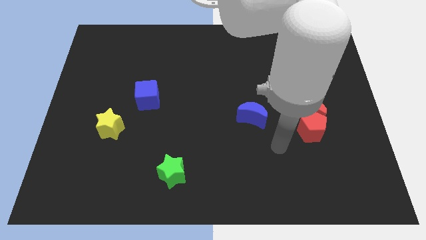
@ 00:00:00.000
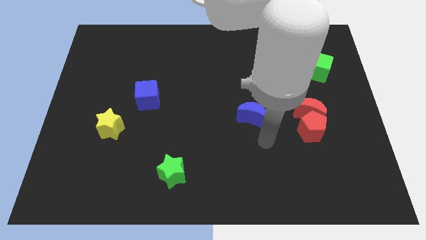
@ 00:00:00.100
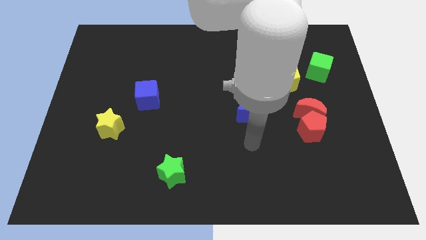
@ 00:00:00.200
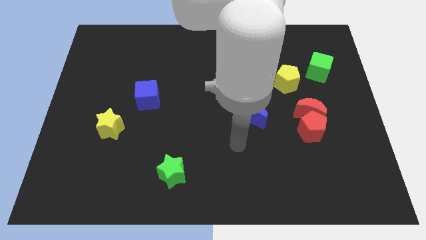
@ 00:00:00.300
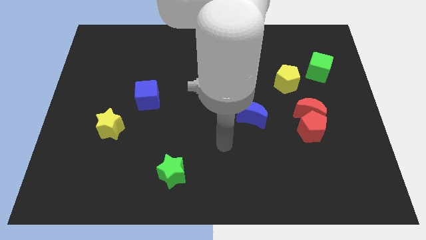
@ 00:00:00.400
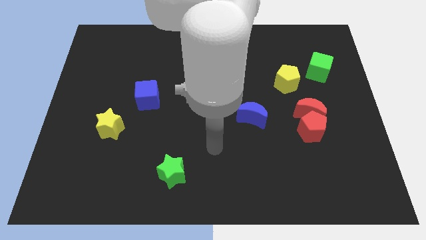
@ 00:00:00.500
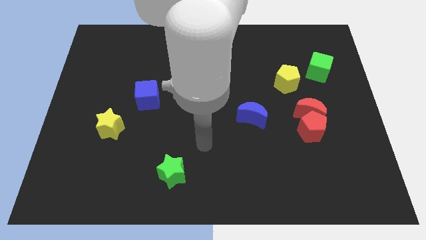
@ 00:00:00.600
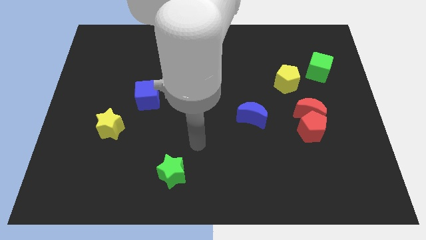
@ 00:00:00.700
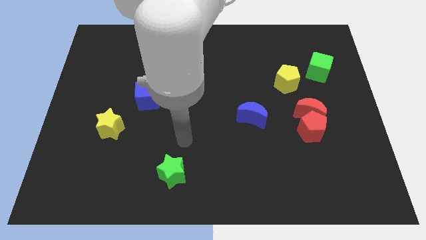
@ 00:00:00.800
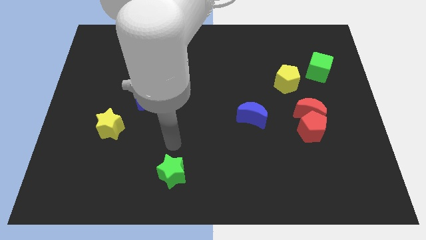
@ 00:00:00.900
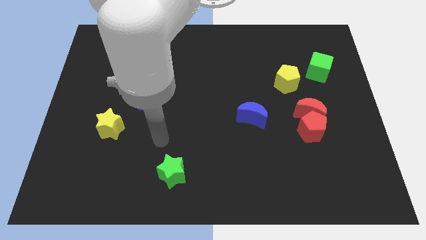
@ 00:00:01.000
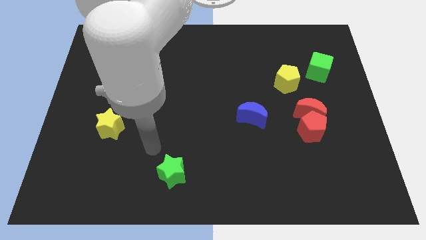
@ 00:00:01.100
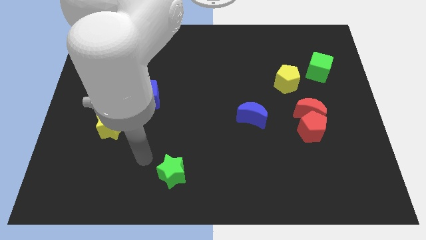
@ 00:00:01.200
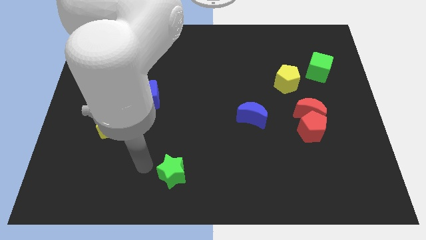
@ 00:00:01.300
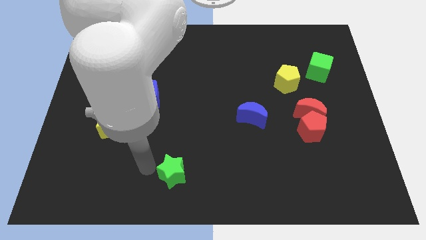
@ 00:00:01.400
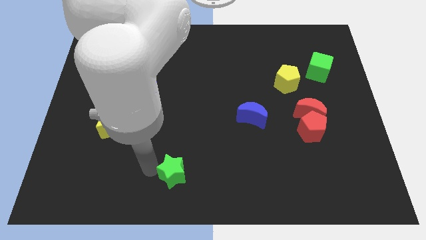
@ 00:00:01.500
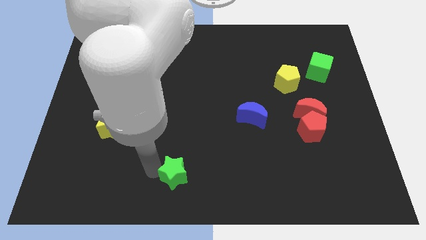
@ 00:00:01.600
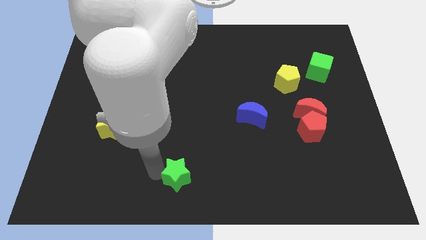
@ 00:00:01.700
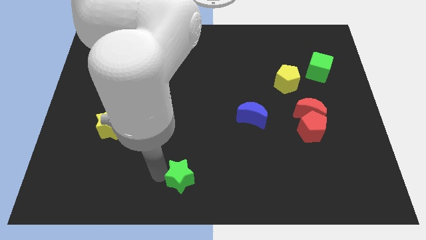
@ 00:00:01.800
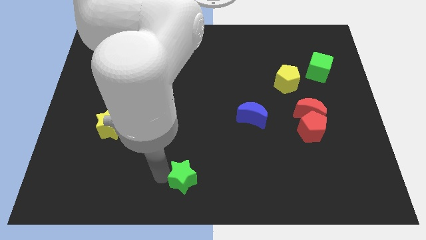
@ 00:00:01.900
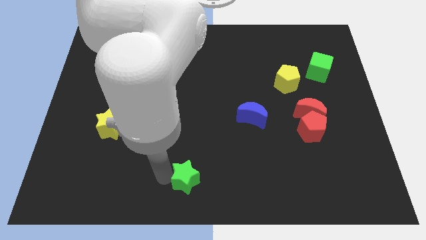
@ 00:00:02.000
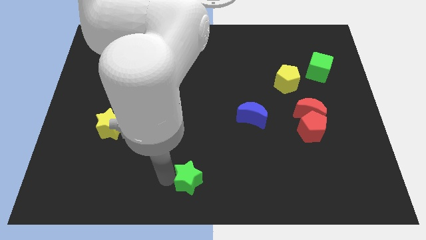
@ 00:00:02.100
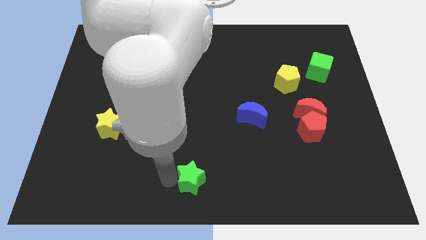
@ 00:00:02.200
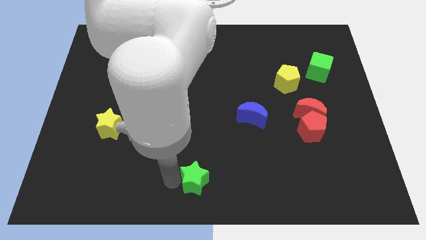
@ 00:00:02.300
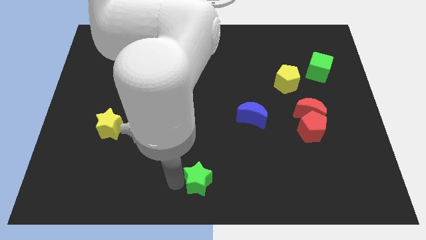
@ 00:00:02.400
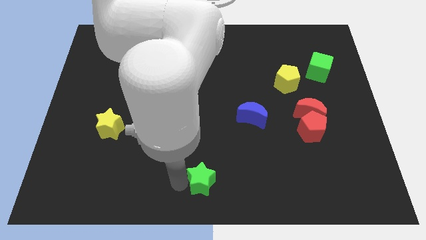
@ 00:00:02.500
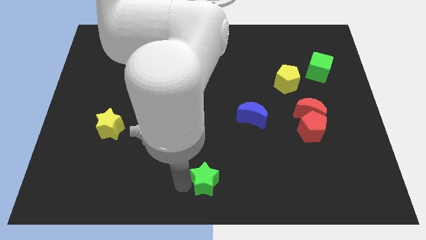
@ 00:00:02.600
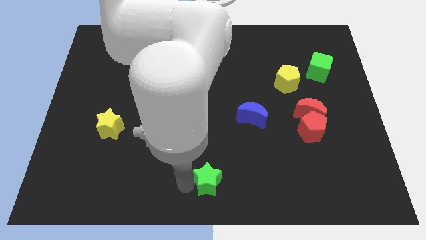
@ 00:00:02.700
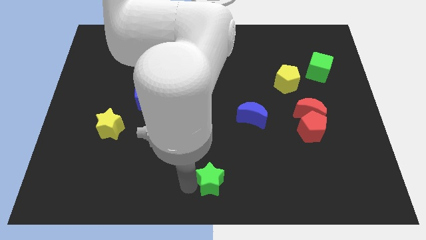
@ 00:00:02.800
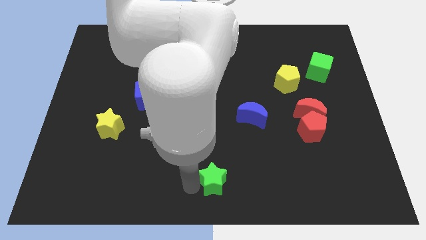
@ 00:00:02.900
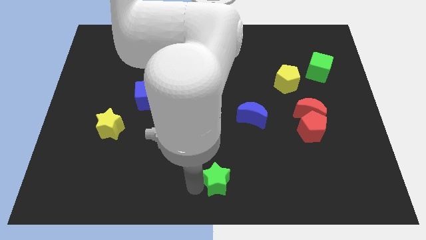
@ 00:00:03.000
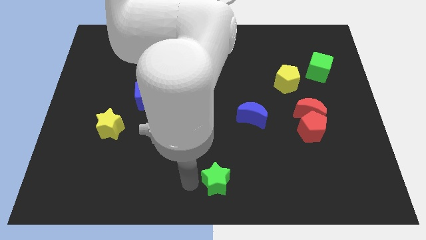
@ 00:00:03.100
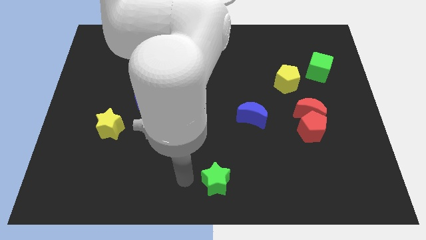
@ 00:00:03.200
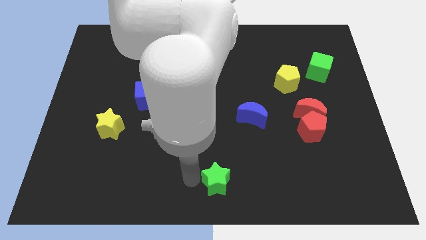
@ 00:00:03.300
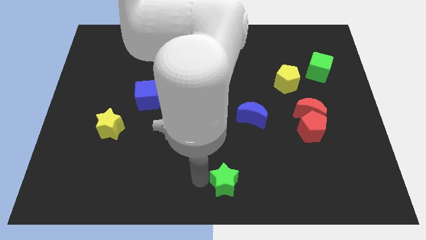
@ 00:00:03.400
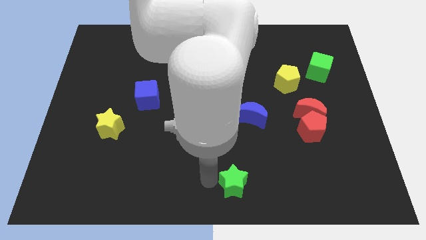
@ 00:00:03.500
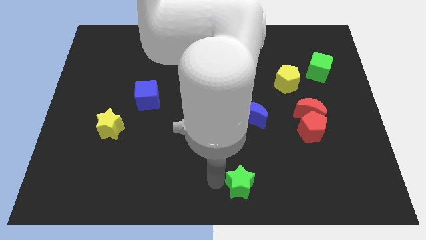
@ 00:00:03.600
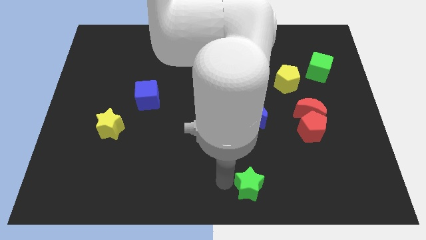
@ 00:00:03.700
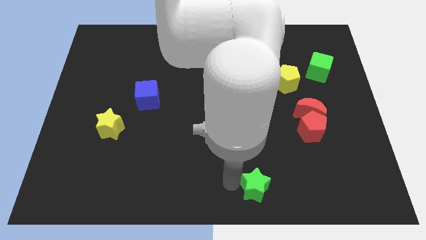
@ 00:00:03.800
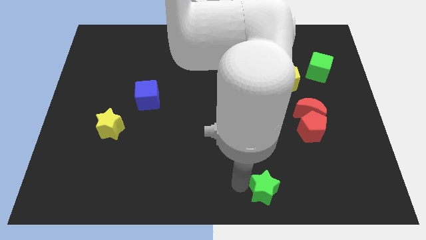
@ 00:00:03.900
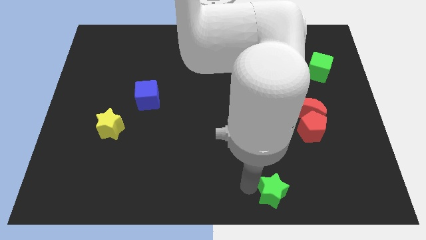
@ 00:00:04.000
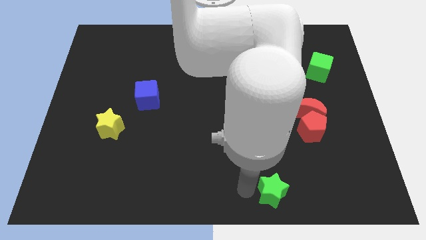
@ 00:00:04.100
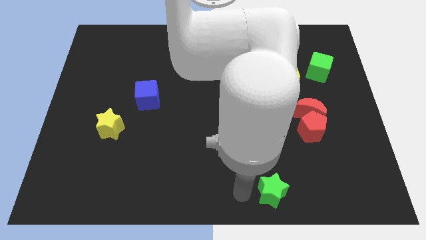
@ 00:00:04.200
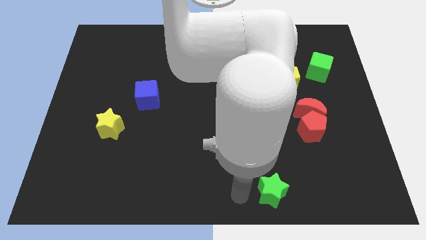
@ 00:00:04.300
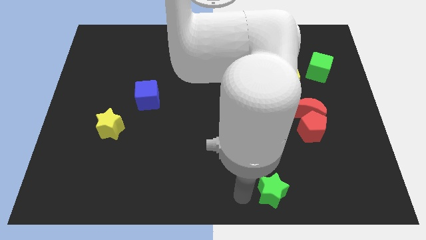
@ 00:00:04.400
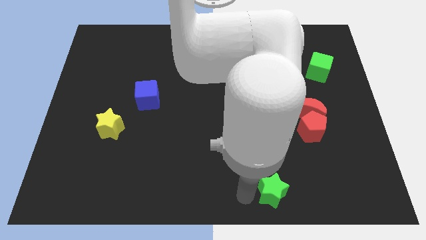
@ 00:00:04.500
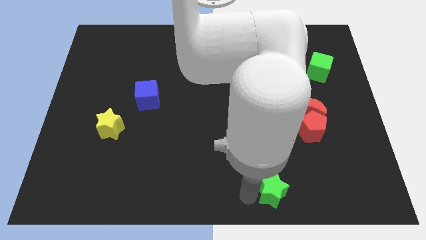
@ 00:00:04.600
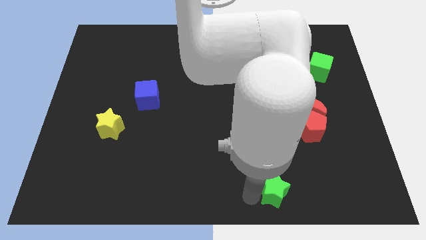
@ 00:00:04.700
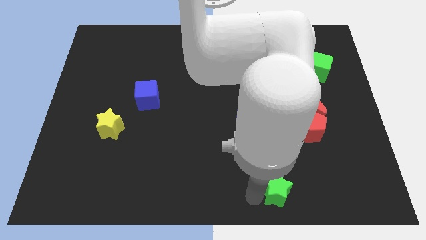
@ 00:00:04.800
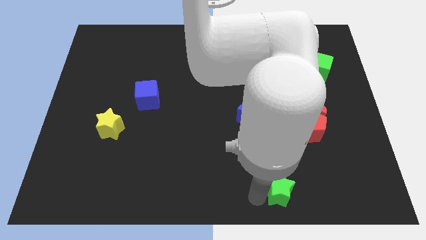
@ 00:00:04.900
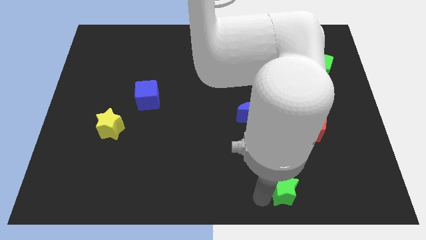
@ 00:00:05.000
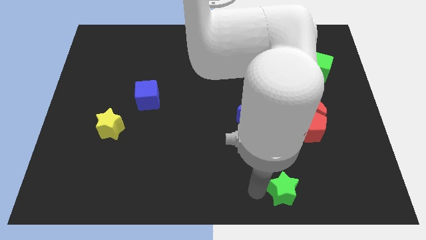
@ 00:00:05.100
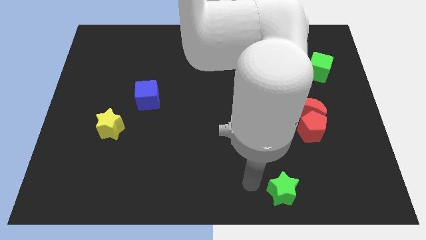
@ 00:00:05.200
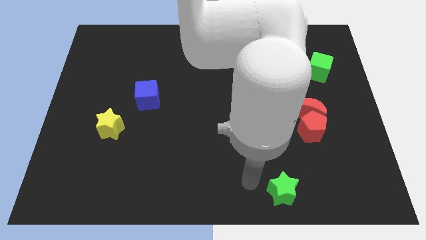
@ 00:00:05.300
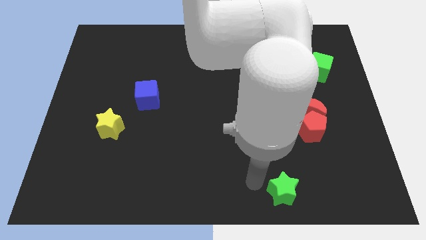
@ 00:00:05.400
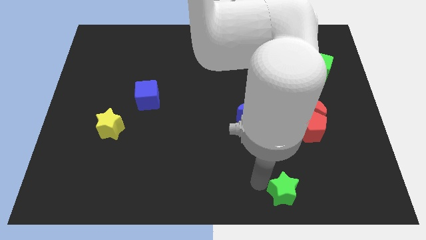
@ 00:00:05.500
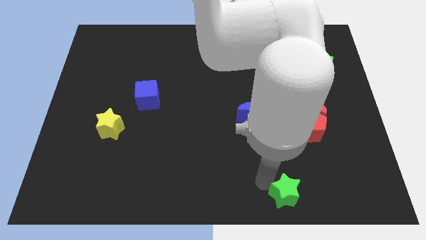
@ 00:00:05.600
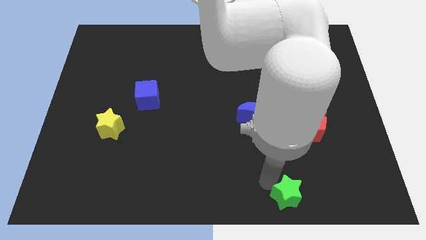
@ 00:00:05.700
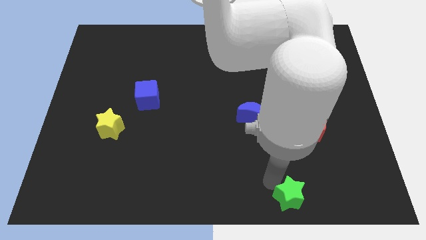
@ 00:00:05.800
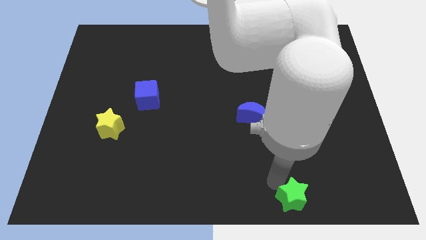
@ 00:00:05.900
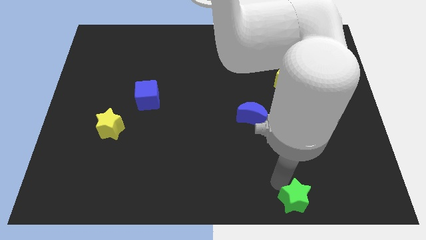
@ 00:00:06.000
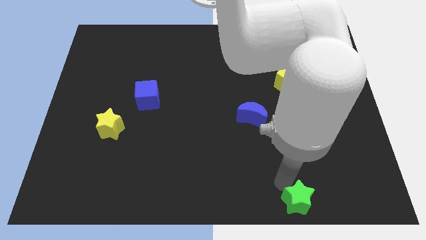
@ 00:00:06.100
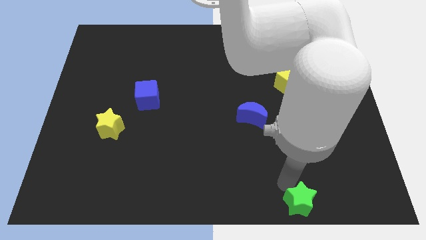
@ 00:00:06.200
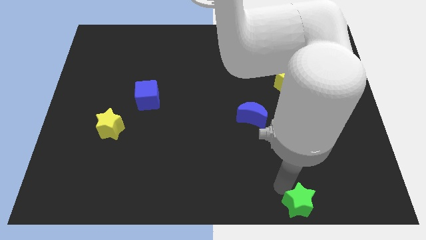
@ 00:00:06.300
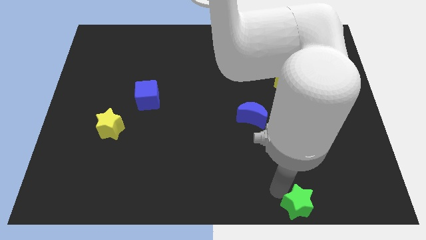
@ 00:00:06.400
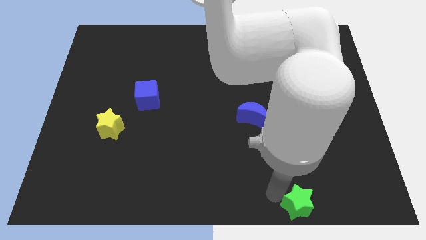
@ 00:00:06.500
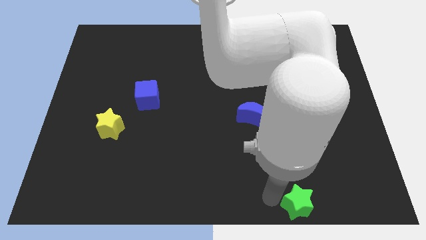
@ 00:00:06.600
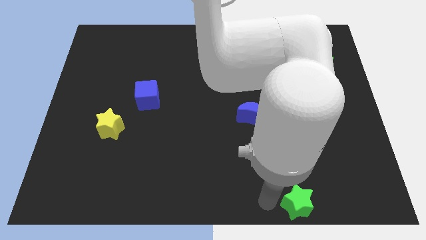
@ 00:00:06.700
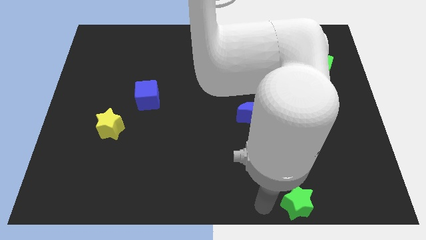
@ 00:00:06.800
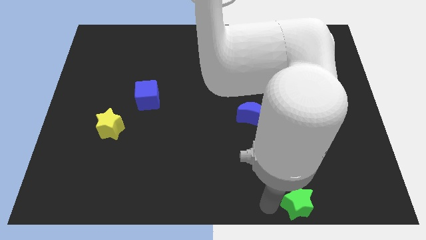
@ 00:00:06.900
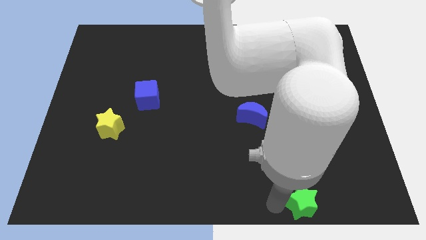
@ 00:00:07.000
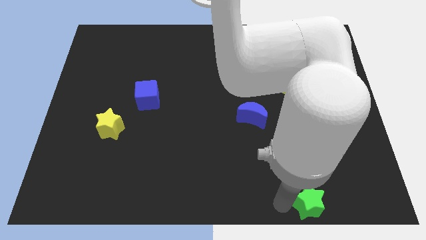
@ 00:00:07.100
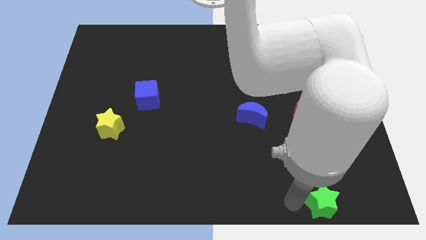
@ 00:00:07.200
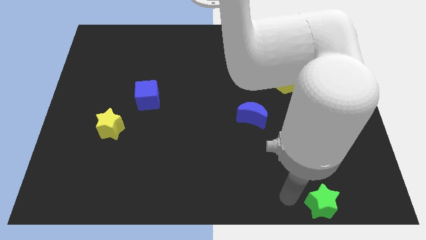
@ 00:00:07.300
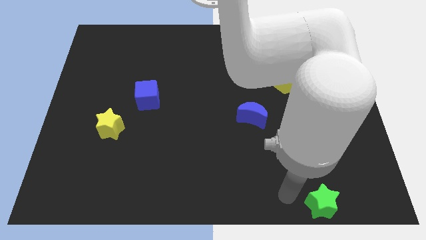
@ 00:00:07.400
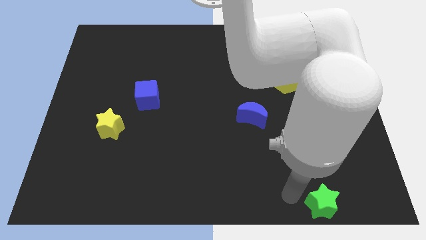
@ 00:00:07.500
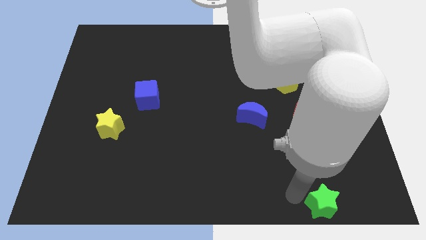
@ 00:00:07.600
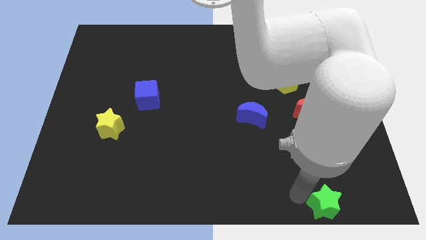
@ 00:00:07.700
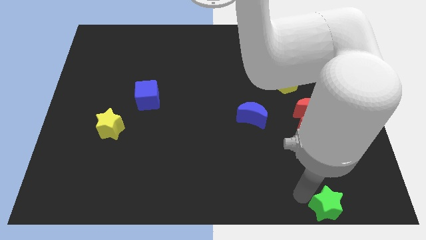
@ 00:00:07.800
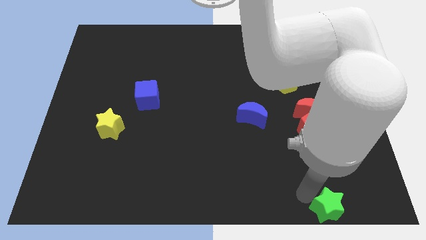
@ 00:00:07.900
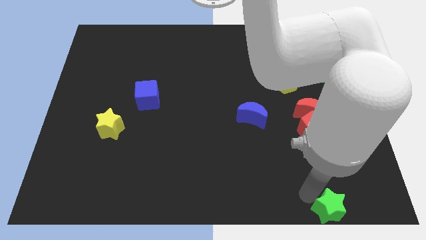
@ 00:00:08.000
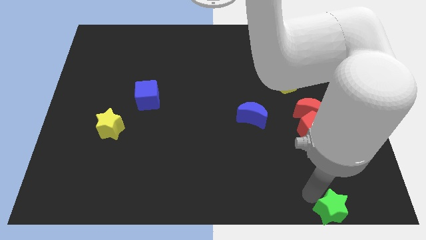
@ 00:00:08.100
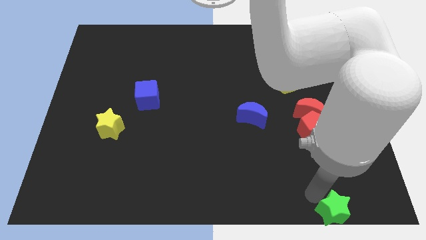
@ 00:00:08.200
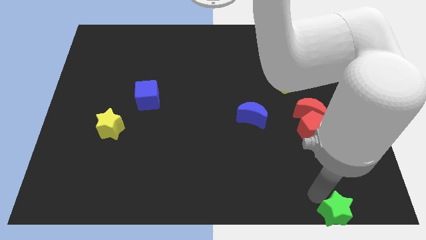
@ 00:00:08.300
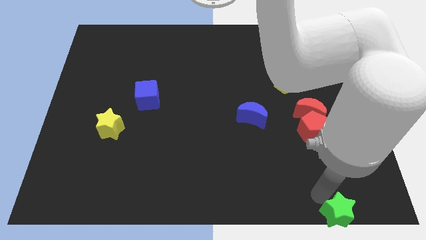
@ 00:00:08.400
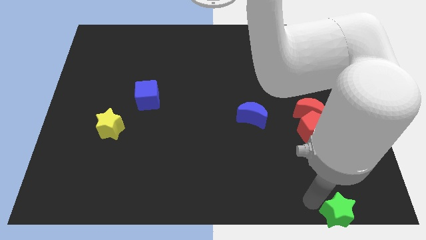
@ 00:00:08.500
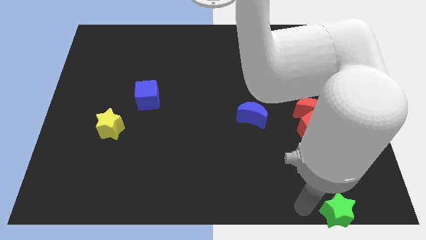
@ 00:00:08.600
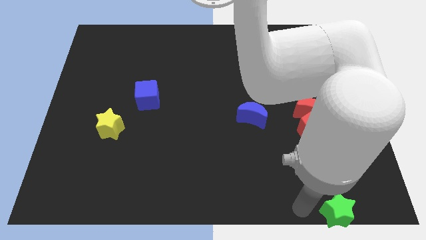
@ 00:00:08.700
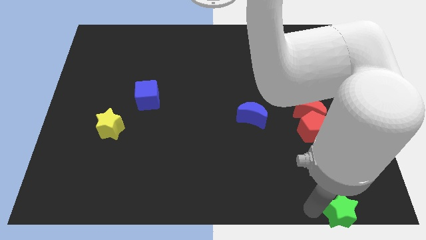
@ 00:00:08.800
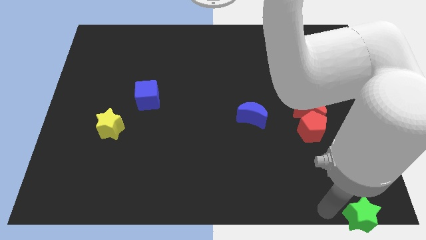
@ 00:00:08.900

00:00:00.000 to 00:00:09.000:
push the green star to the bottom right of the board
